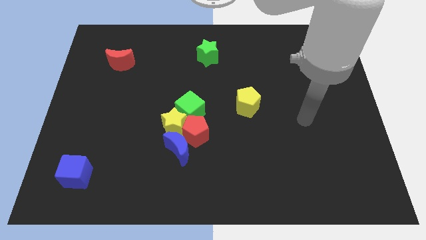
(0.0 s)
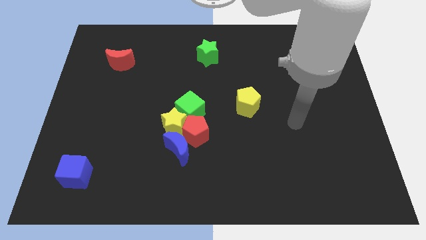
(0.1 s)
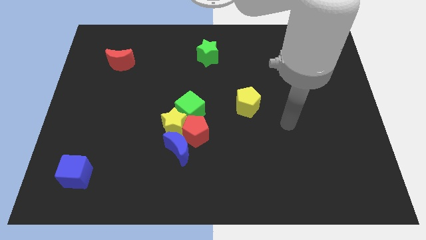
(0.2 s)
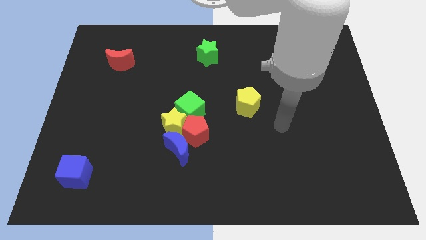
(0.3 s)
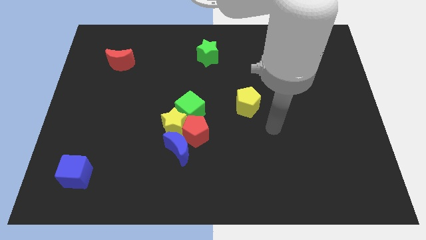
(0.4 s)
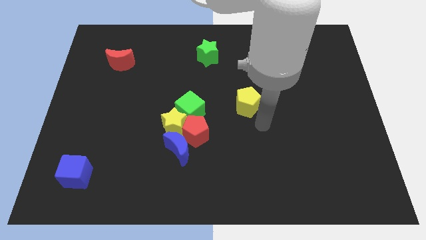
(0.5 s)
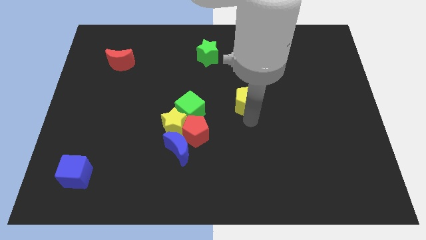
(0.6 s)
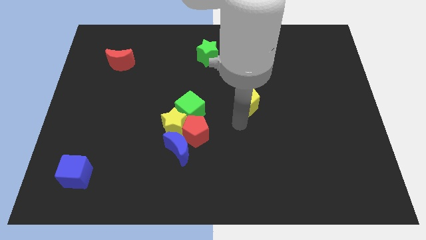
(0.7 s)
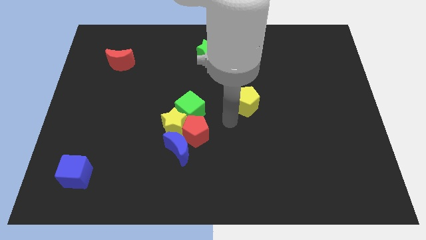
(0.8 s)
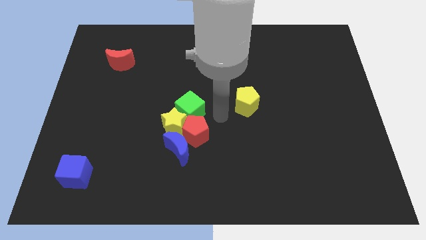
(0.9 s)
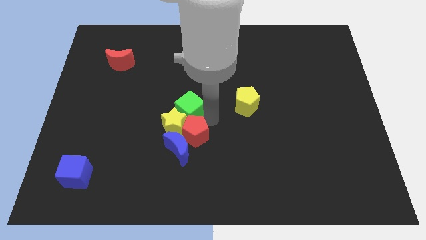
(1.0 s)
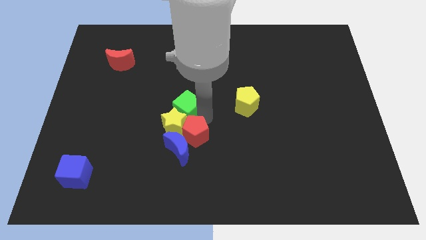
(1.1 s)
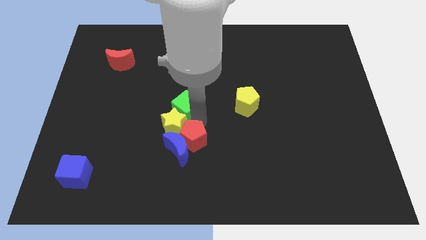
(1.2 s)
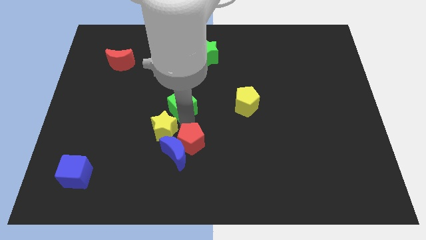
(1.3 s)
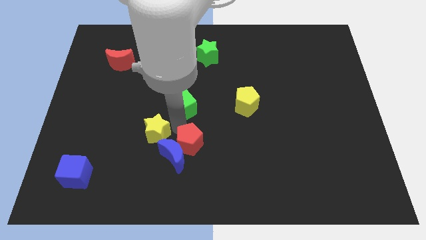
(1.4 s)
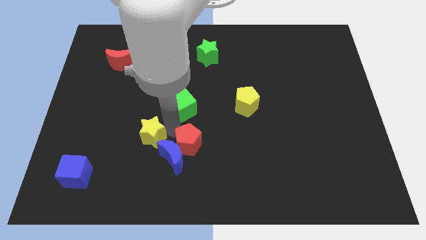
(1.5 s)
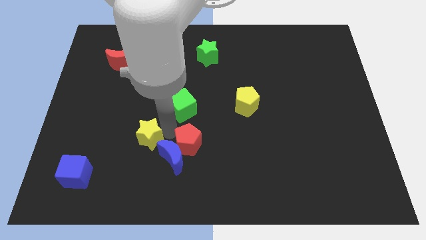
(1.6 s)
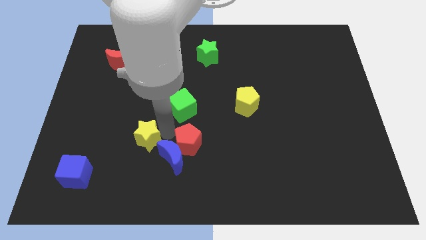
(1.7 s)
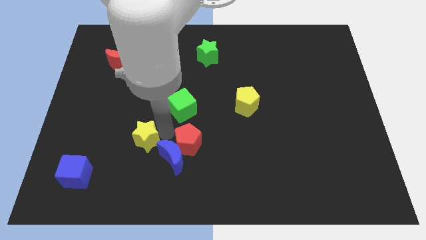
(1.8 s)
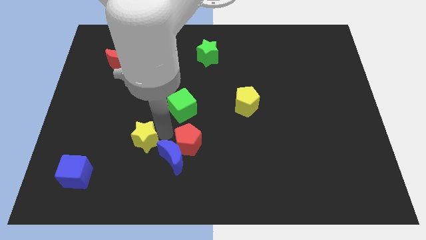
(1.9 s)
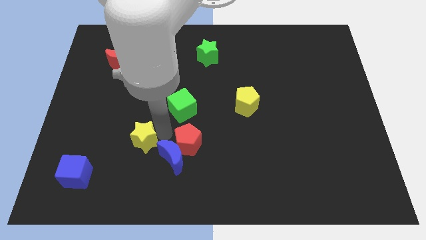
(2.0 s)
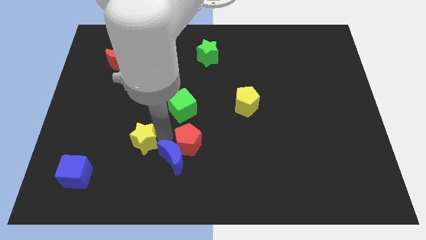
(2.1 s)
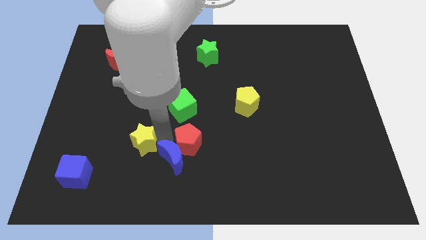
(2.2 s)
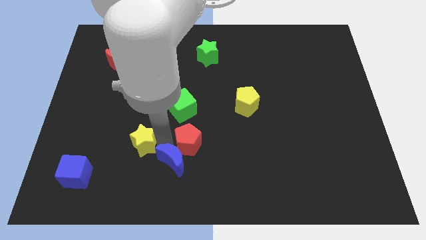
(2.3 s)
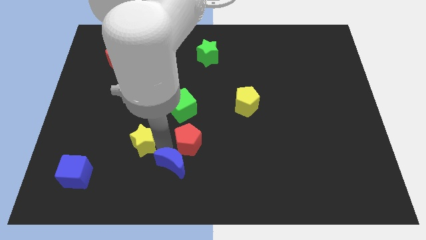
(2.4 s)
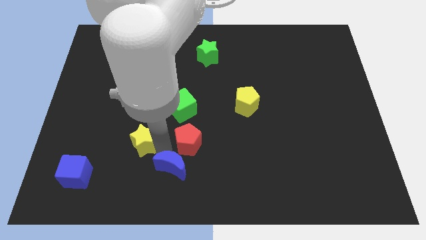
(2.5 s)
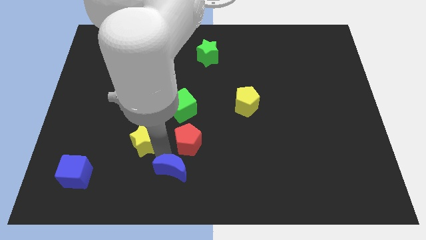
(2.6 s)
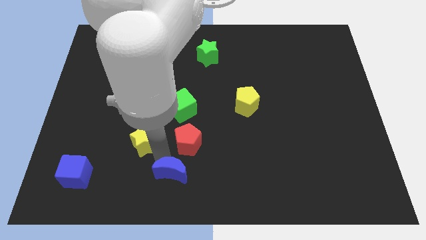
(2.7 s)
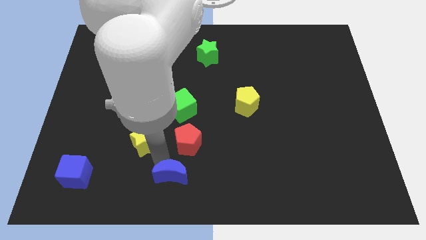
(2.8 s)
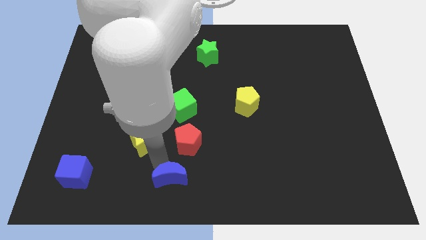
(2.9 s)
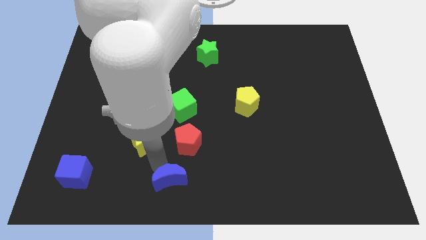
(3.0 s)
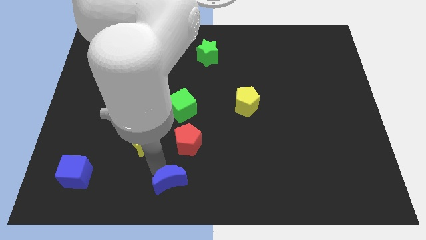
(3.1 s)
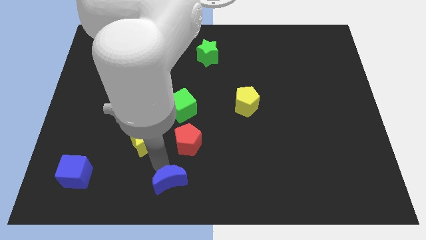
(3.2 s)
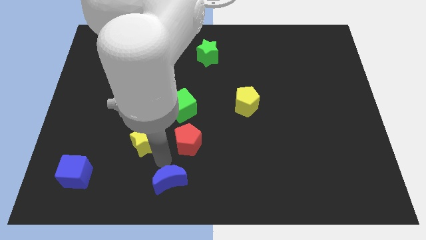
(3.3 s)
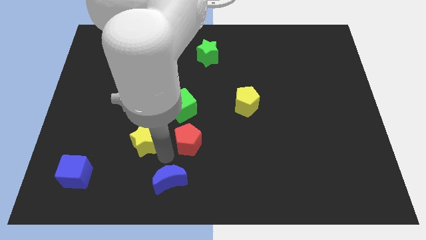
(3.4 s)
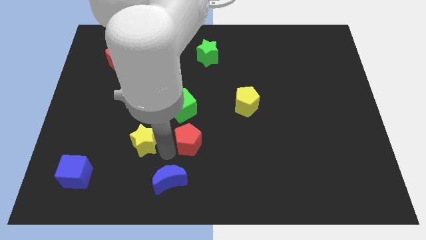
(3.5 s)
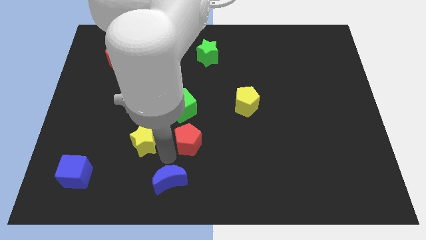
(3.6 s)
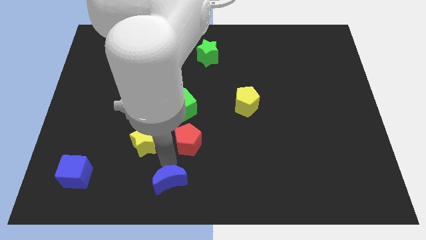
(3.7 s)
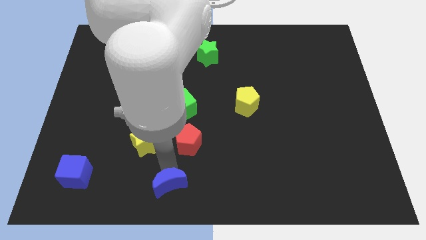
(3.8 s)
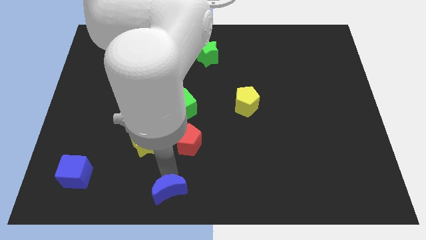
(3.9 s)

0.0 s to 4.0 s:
pull the blue moon apart from the red pentagon and yellow star

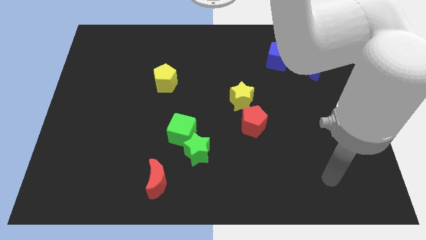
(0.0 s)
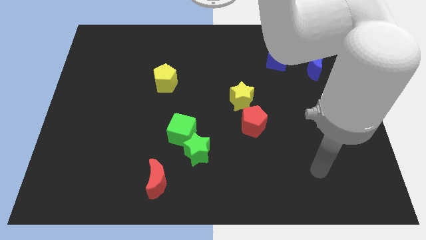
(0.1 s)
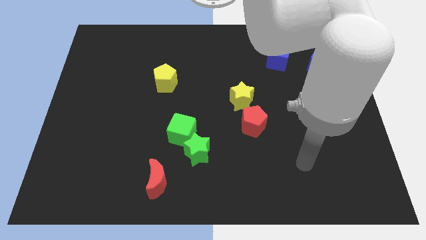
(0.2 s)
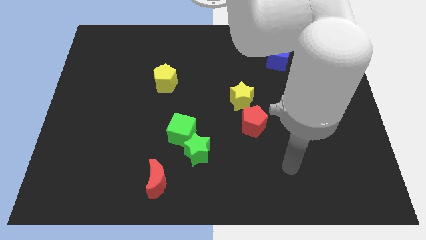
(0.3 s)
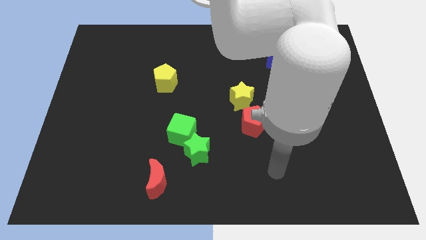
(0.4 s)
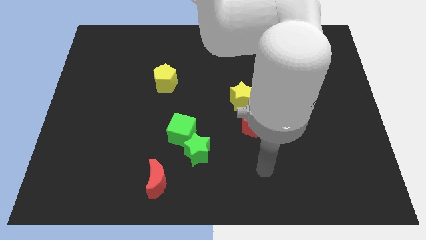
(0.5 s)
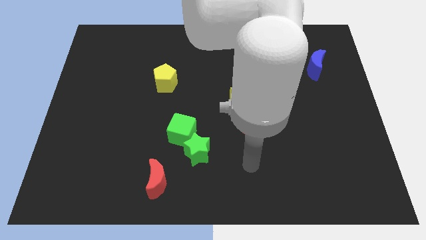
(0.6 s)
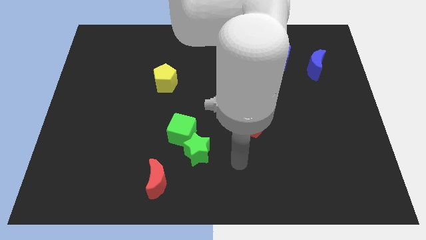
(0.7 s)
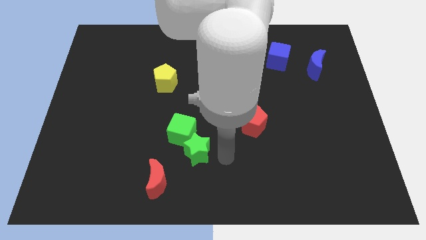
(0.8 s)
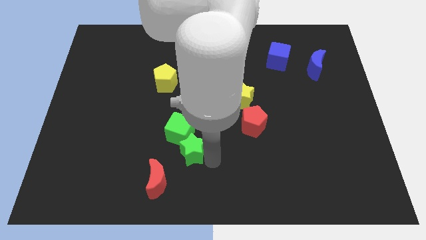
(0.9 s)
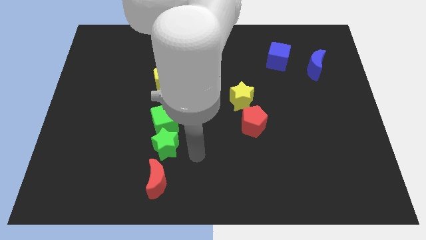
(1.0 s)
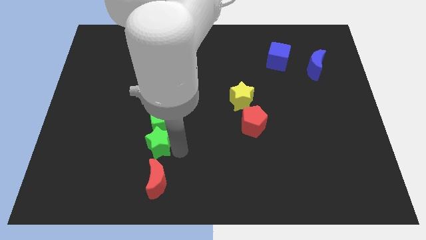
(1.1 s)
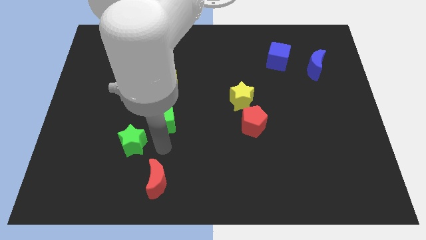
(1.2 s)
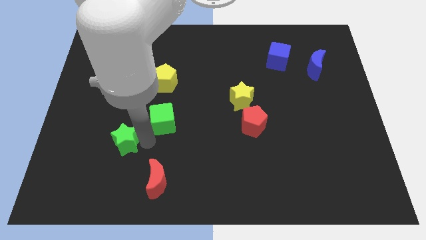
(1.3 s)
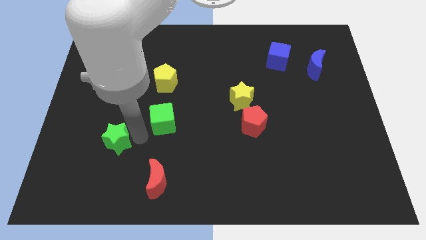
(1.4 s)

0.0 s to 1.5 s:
separate the green cube from the green star

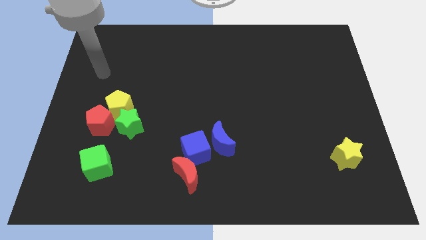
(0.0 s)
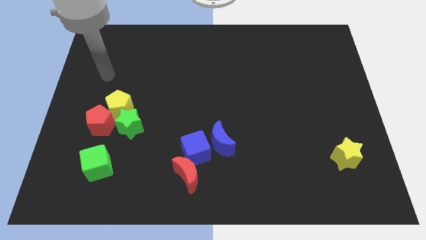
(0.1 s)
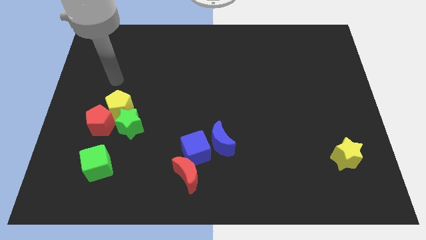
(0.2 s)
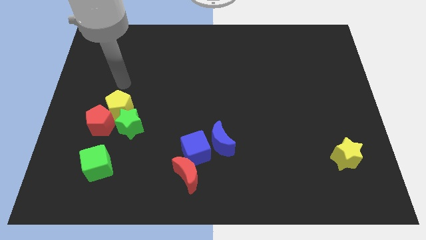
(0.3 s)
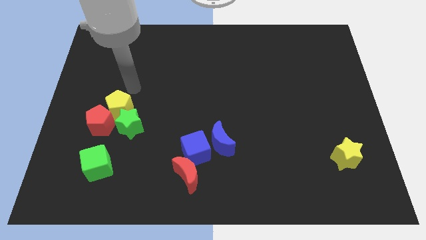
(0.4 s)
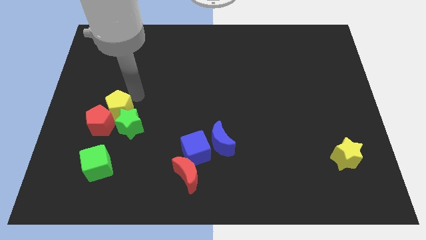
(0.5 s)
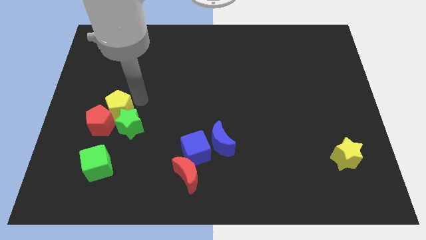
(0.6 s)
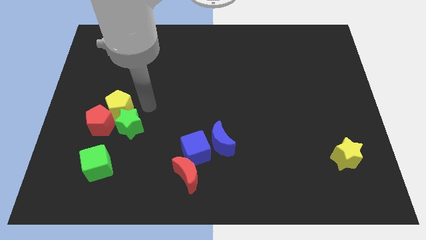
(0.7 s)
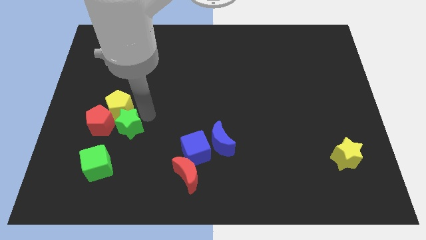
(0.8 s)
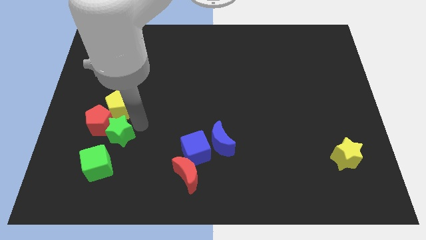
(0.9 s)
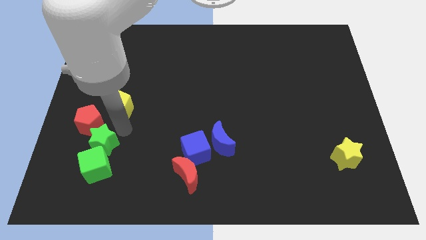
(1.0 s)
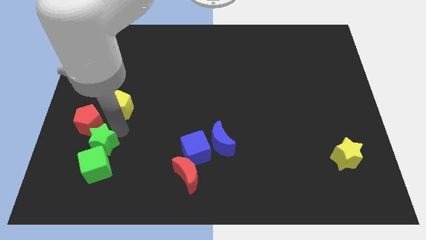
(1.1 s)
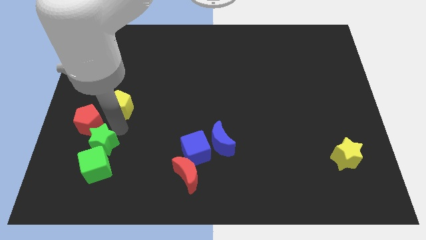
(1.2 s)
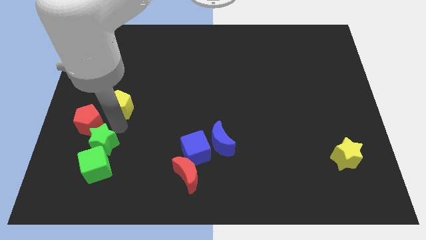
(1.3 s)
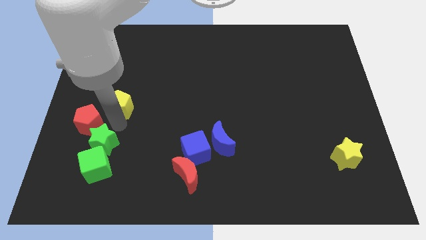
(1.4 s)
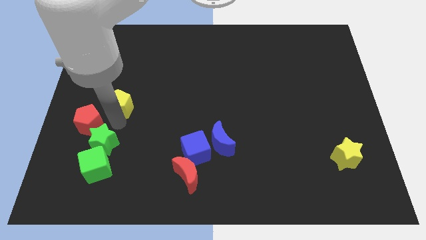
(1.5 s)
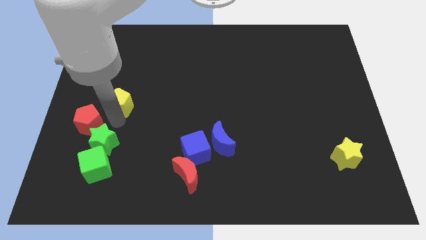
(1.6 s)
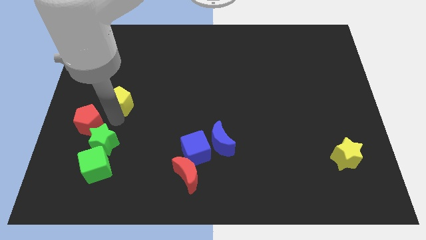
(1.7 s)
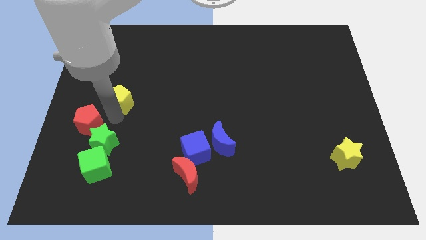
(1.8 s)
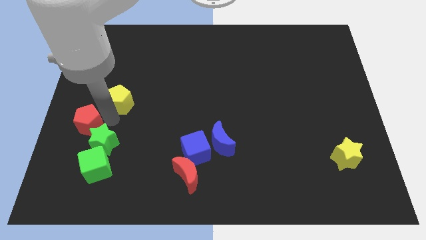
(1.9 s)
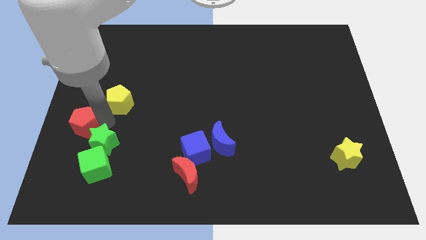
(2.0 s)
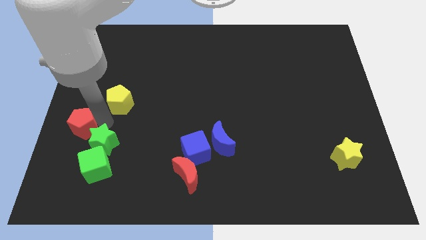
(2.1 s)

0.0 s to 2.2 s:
move the yellow pentagon away from the red pentagon and green star

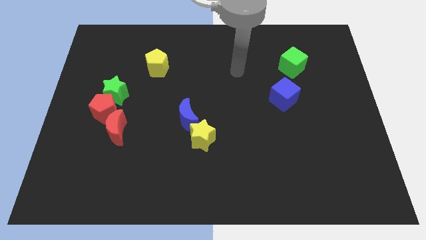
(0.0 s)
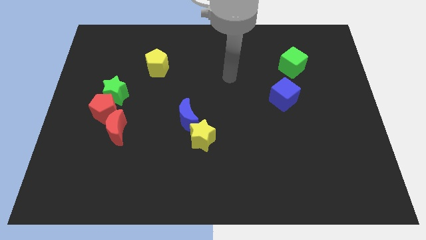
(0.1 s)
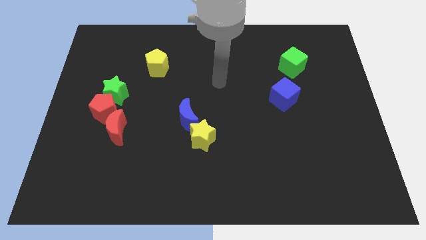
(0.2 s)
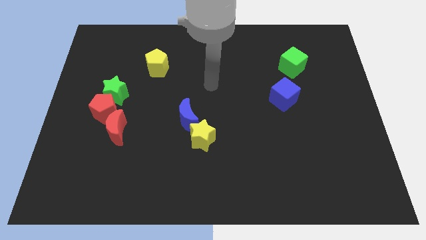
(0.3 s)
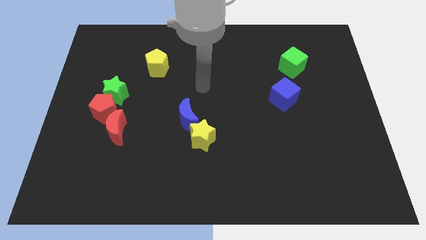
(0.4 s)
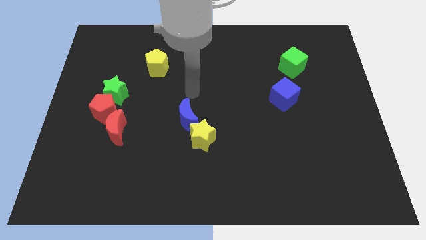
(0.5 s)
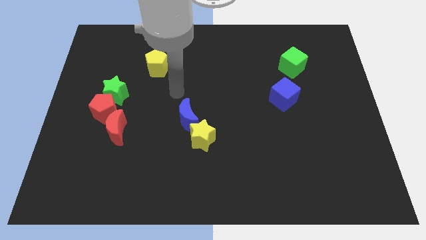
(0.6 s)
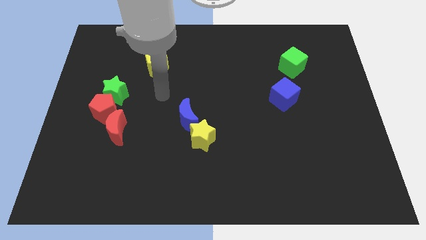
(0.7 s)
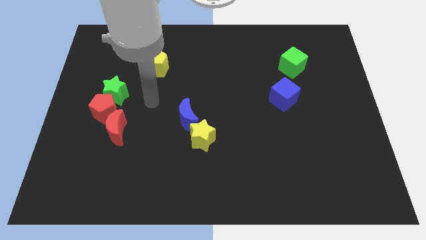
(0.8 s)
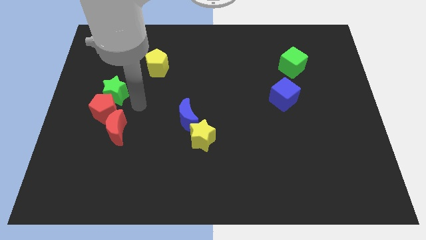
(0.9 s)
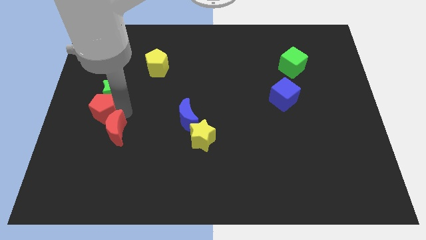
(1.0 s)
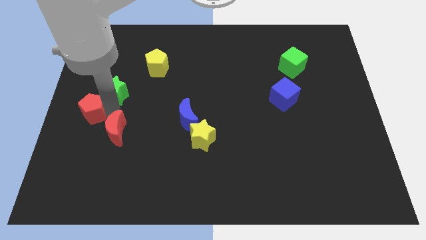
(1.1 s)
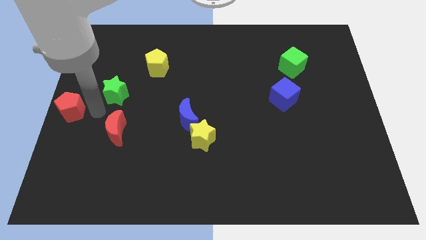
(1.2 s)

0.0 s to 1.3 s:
separate the green star from the red pentagon

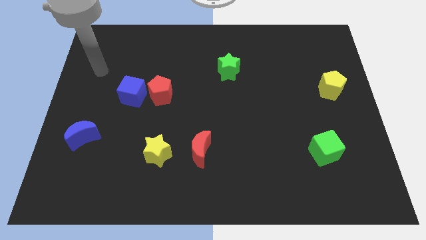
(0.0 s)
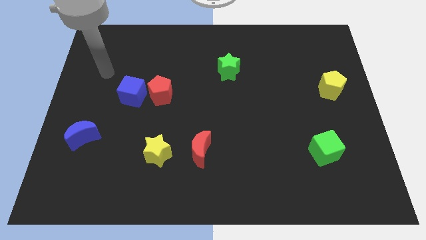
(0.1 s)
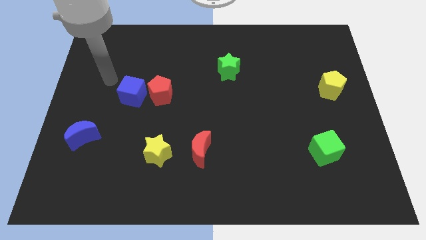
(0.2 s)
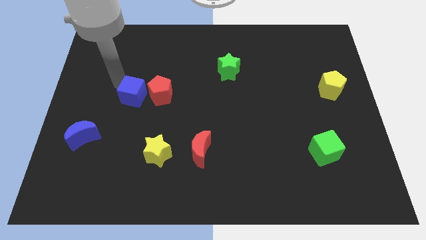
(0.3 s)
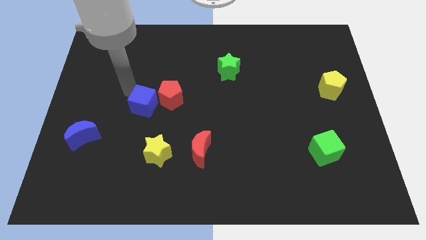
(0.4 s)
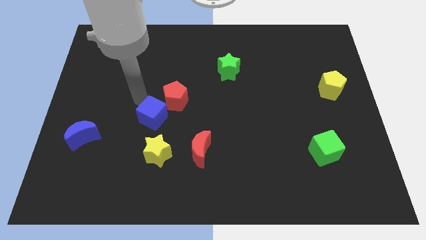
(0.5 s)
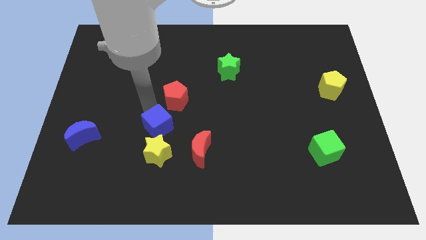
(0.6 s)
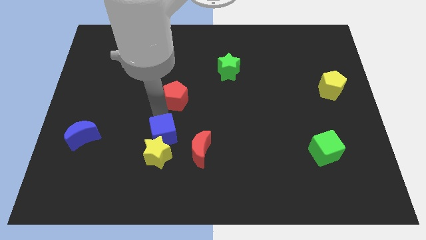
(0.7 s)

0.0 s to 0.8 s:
move the red pentagon away from the blue cube
